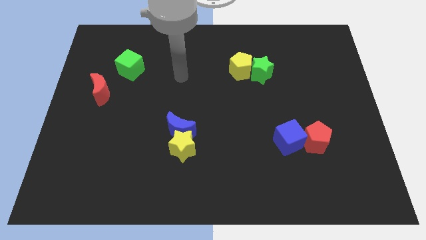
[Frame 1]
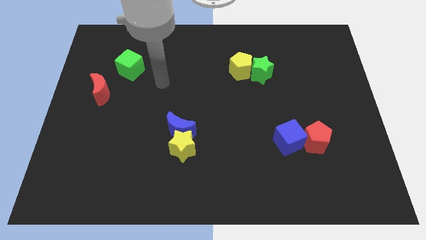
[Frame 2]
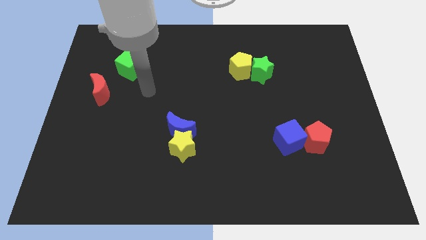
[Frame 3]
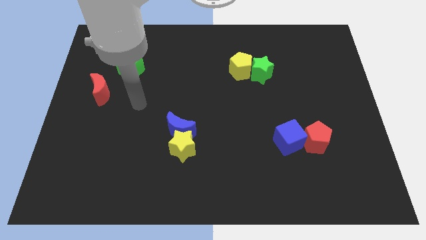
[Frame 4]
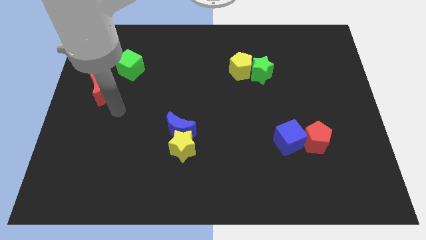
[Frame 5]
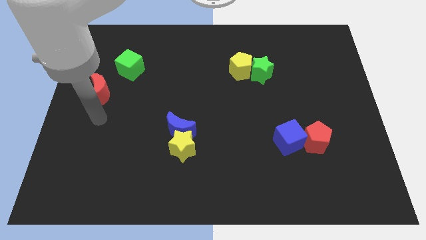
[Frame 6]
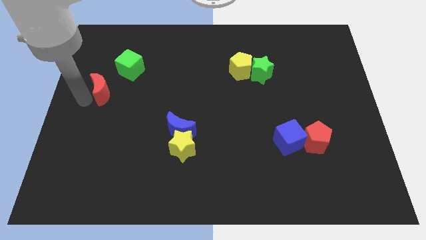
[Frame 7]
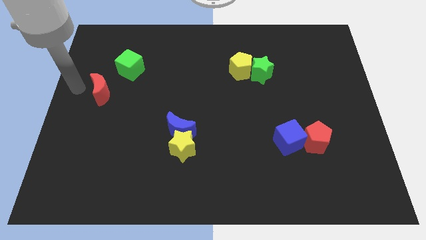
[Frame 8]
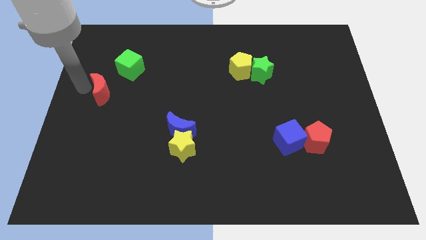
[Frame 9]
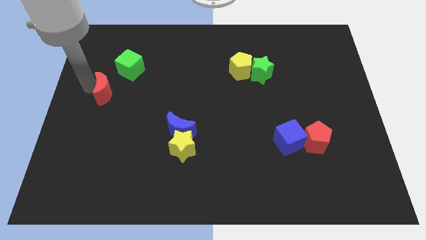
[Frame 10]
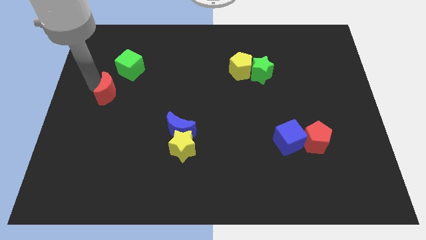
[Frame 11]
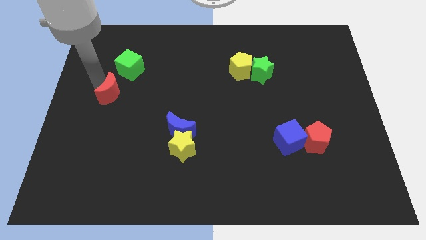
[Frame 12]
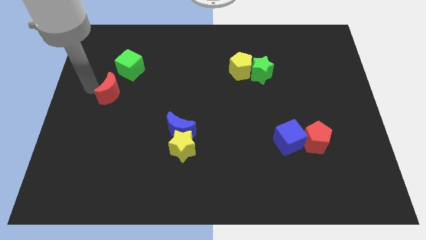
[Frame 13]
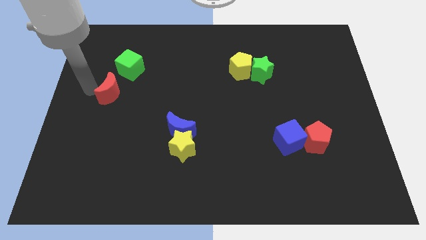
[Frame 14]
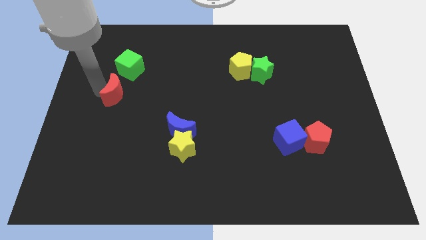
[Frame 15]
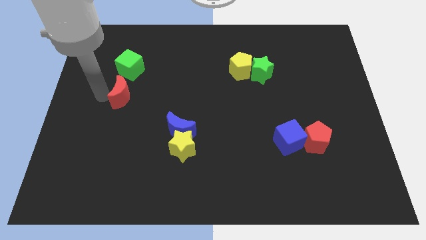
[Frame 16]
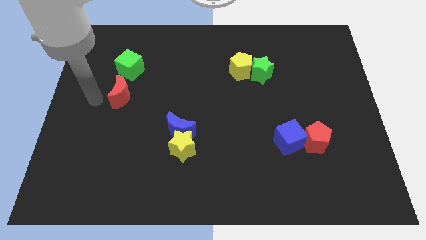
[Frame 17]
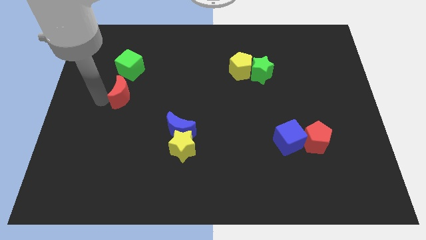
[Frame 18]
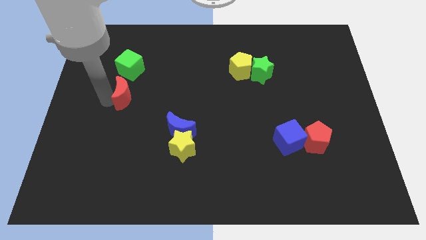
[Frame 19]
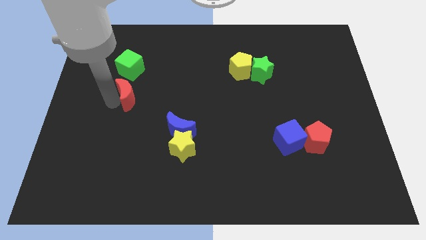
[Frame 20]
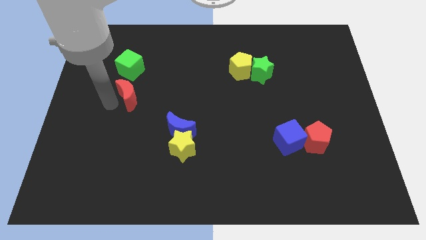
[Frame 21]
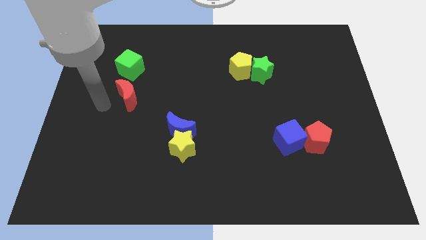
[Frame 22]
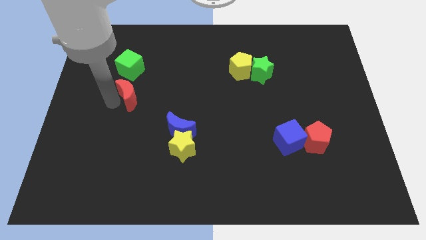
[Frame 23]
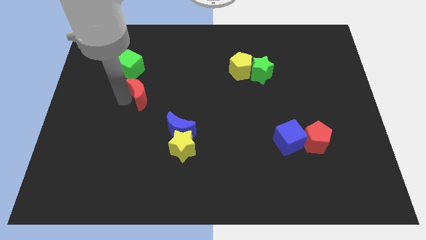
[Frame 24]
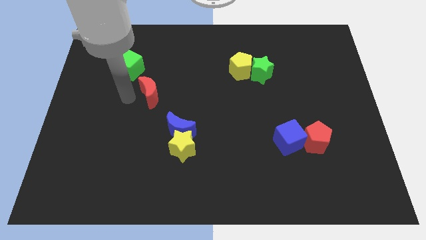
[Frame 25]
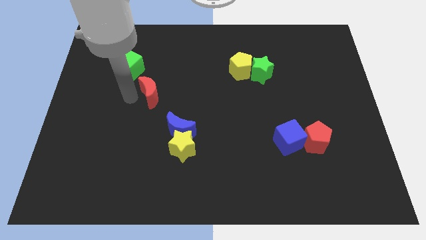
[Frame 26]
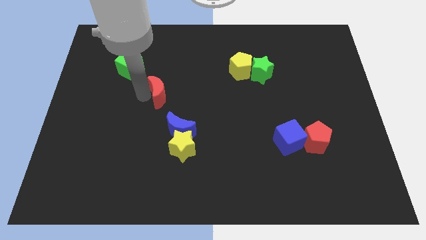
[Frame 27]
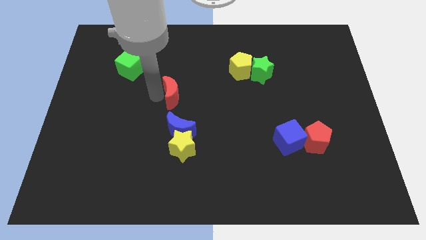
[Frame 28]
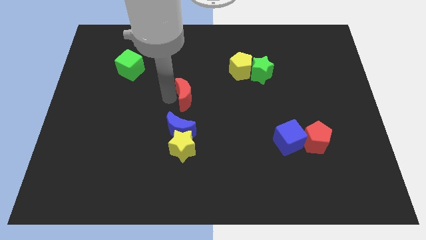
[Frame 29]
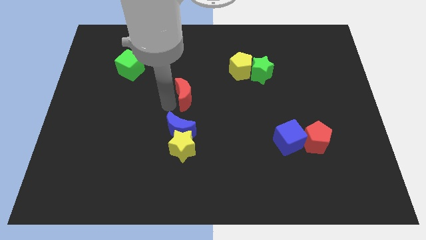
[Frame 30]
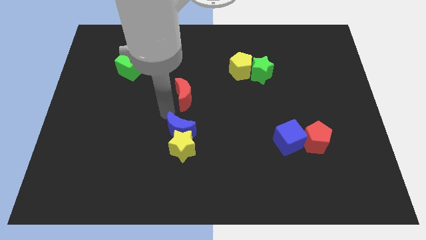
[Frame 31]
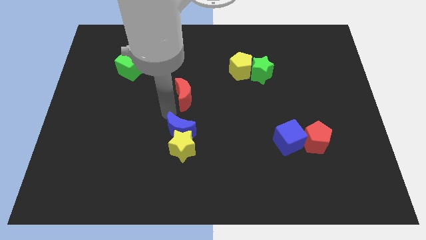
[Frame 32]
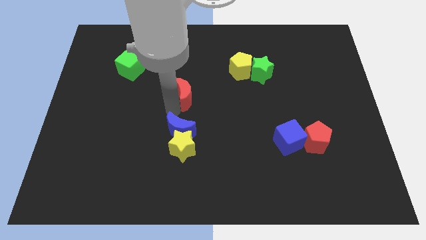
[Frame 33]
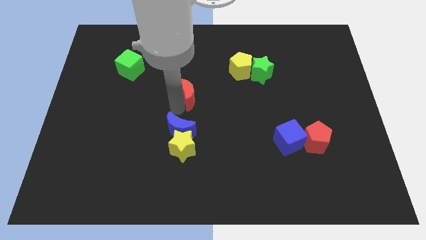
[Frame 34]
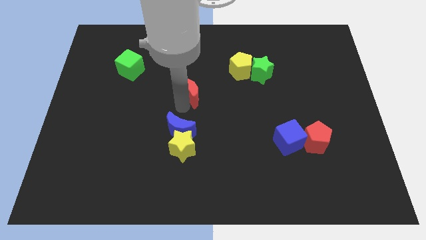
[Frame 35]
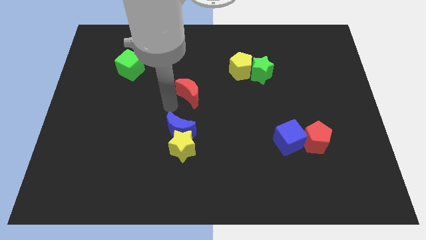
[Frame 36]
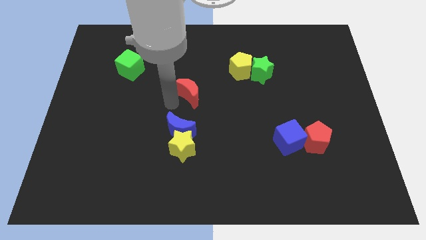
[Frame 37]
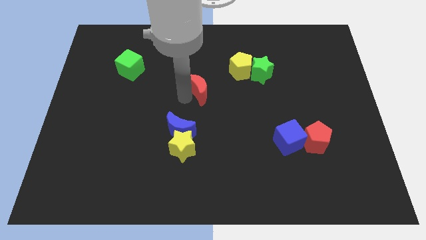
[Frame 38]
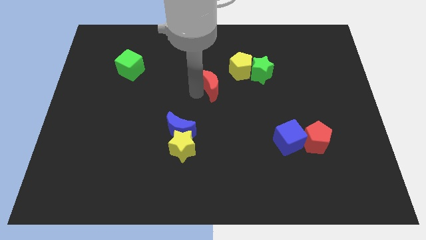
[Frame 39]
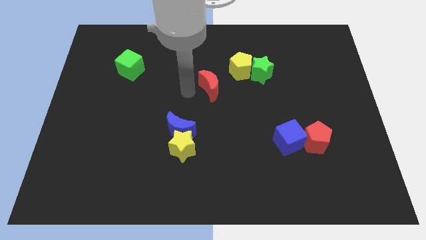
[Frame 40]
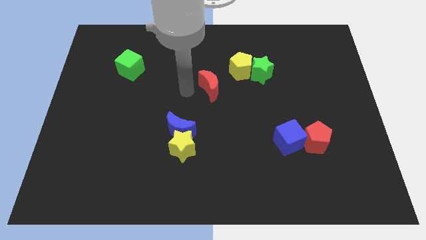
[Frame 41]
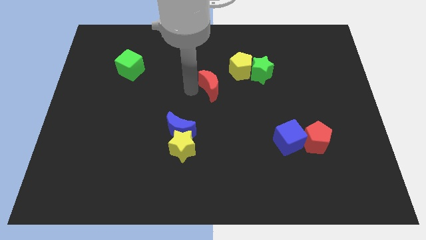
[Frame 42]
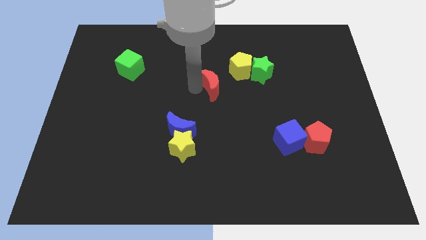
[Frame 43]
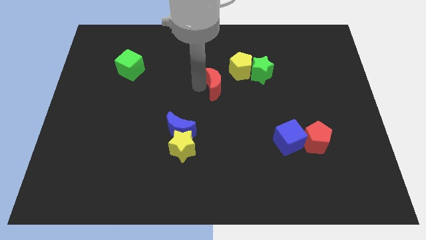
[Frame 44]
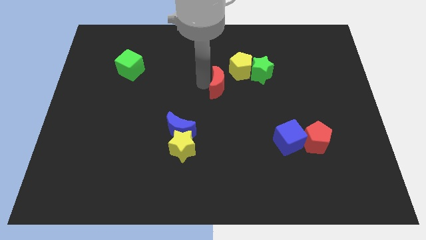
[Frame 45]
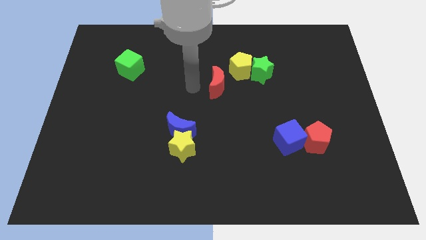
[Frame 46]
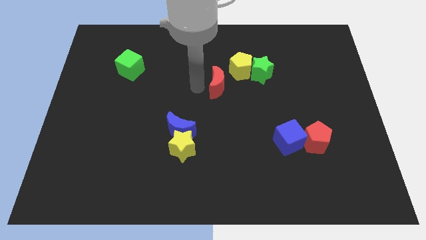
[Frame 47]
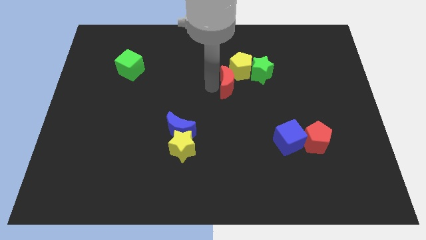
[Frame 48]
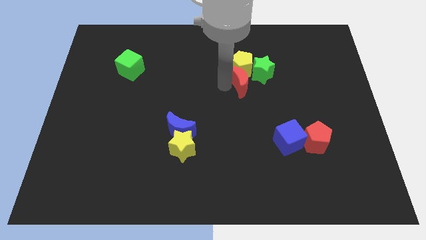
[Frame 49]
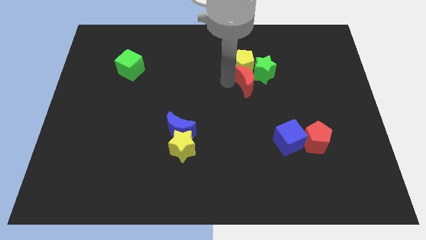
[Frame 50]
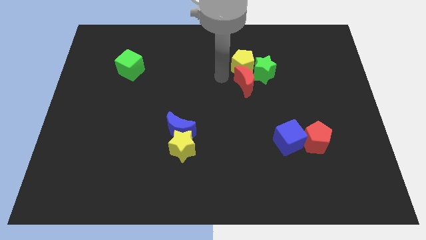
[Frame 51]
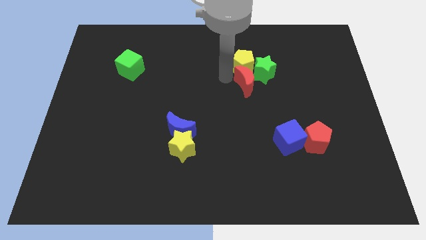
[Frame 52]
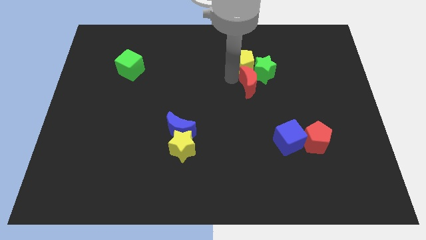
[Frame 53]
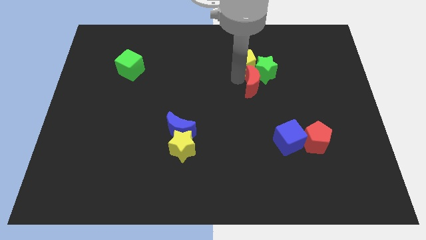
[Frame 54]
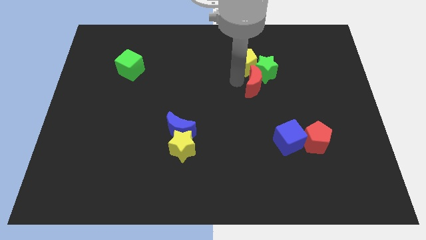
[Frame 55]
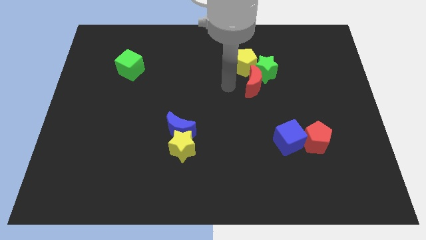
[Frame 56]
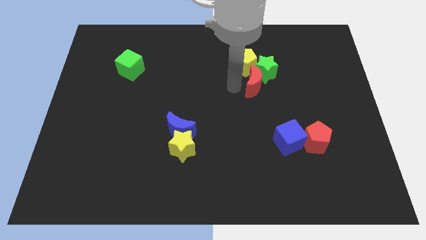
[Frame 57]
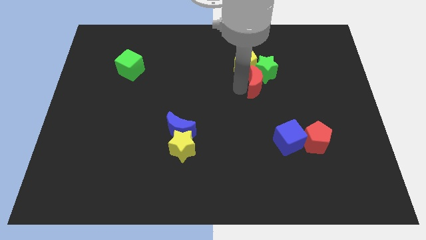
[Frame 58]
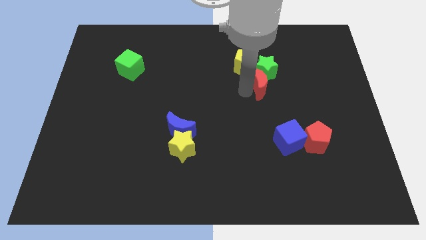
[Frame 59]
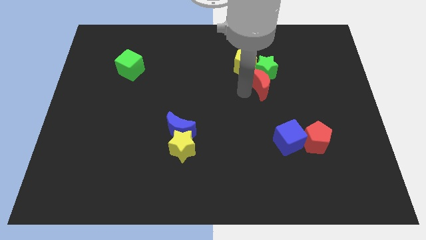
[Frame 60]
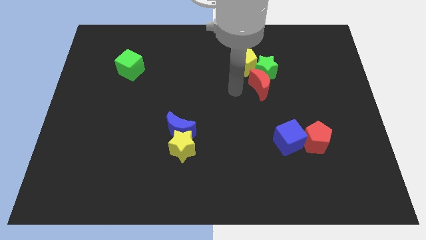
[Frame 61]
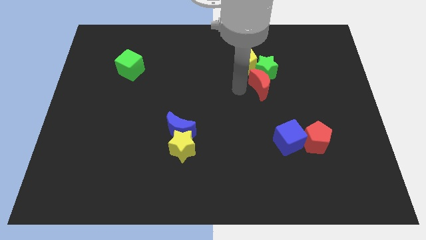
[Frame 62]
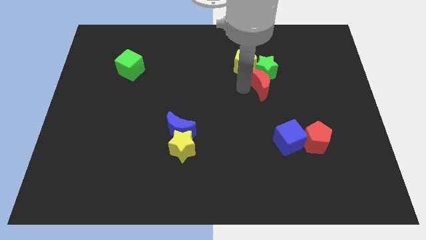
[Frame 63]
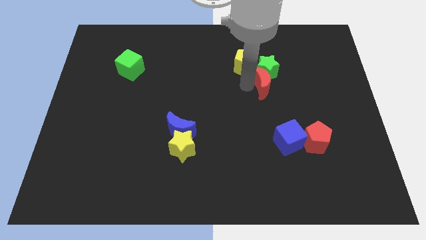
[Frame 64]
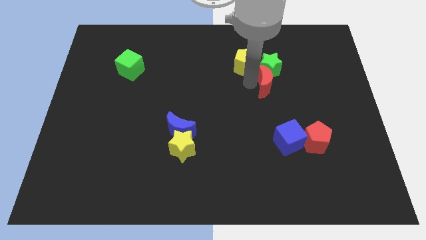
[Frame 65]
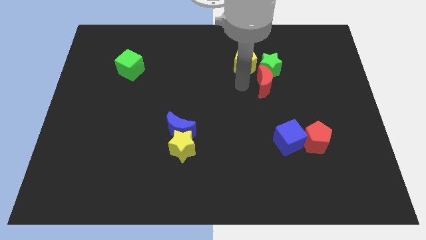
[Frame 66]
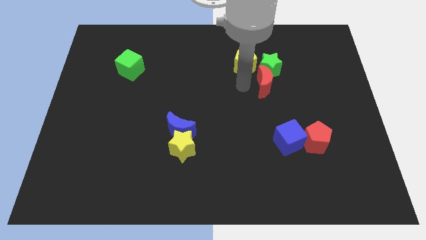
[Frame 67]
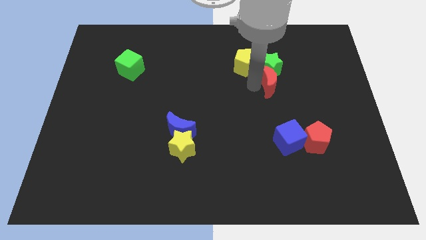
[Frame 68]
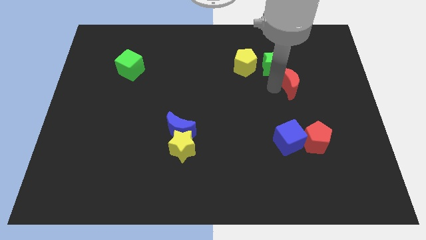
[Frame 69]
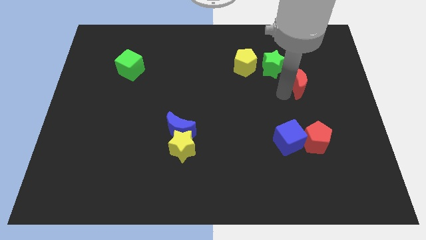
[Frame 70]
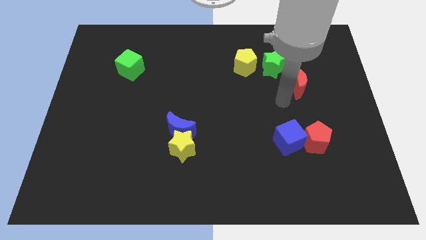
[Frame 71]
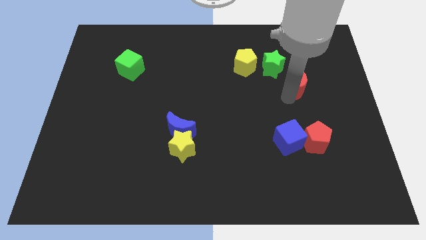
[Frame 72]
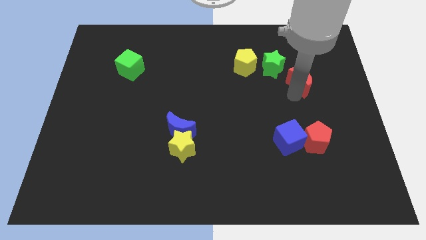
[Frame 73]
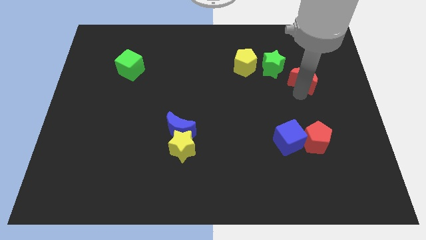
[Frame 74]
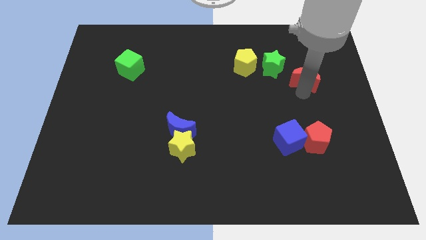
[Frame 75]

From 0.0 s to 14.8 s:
slide the red moon to the right of the green star
